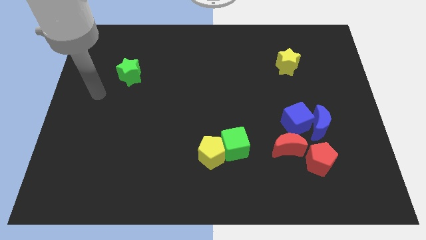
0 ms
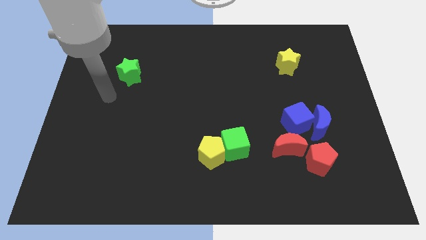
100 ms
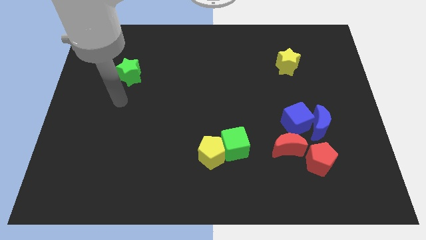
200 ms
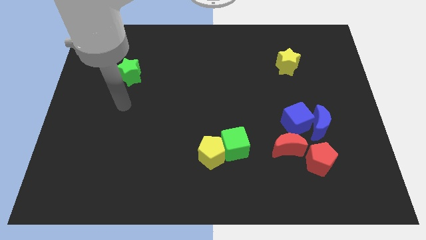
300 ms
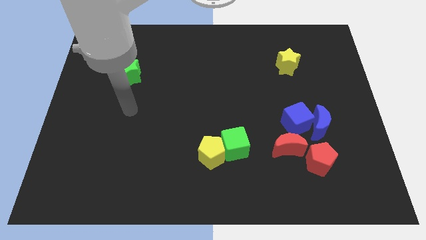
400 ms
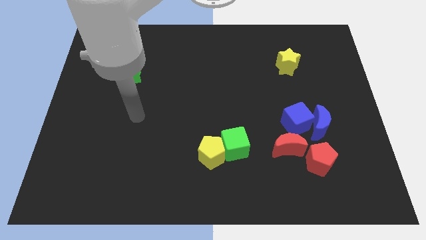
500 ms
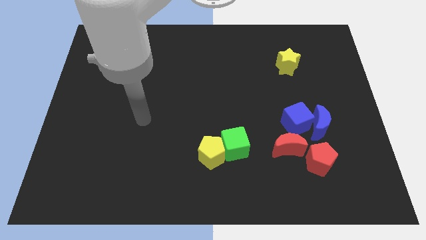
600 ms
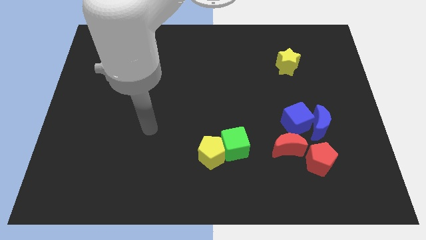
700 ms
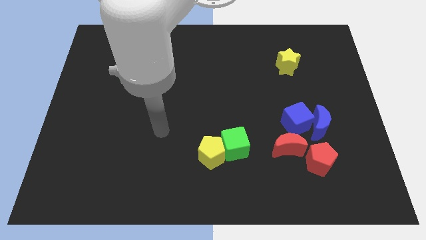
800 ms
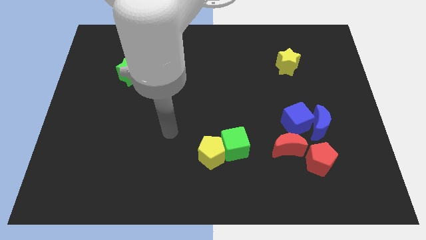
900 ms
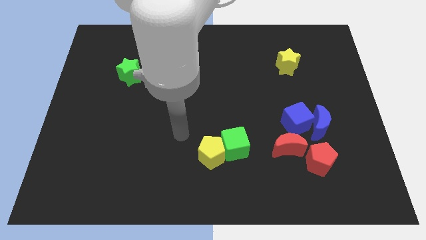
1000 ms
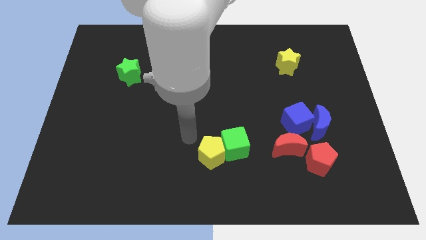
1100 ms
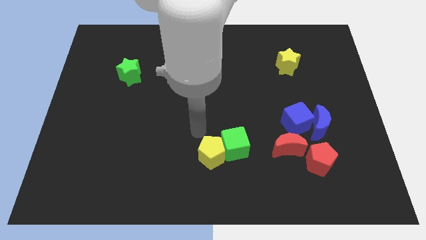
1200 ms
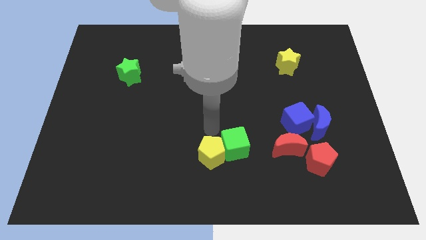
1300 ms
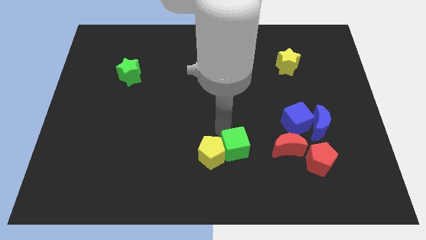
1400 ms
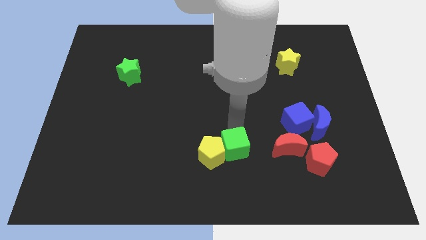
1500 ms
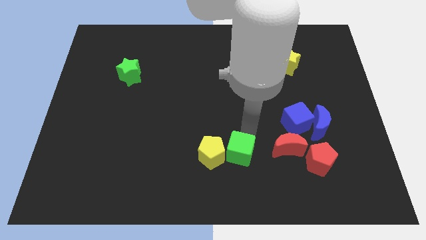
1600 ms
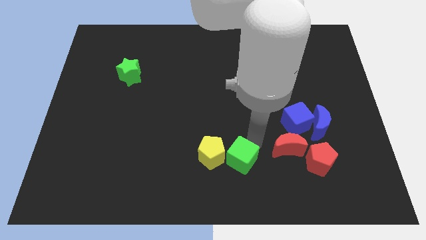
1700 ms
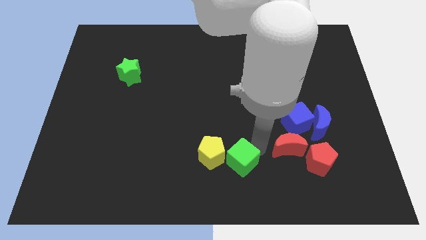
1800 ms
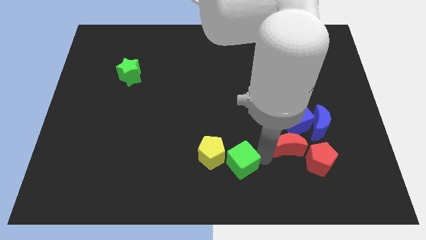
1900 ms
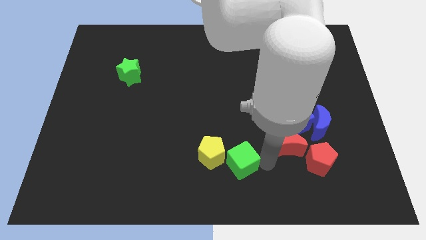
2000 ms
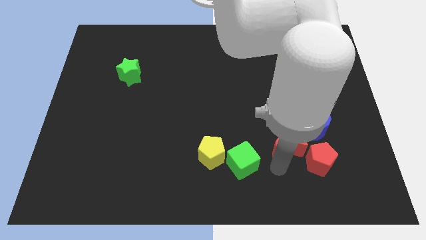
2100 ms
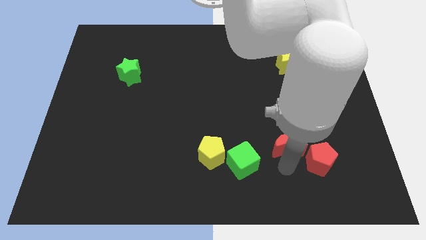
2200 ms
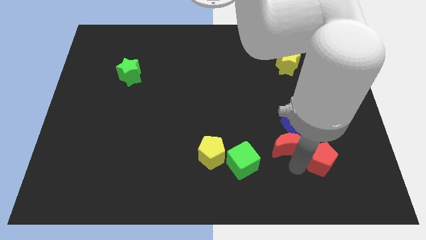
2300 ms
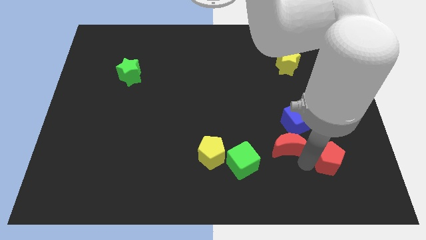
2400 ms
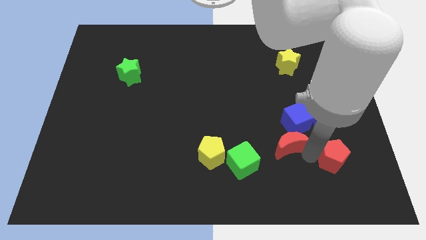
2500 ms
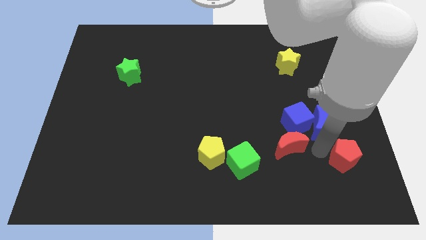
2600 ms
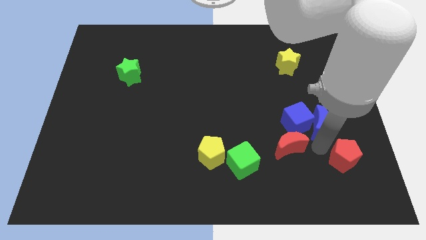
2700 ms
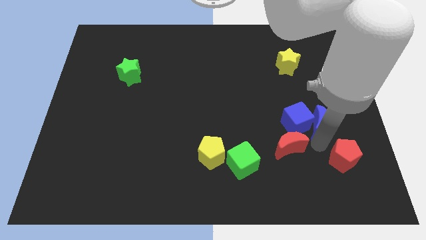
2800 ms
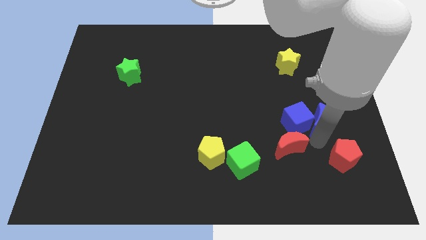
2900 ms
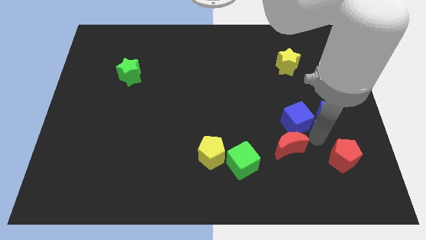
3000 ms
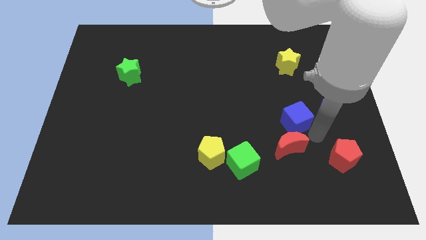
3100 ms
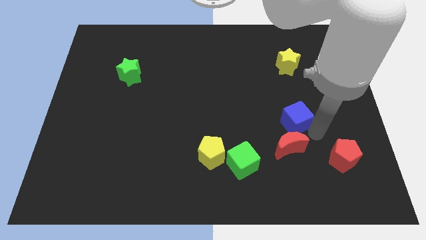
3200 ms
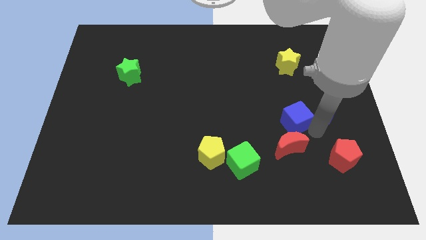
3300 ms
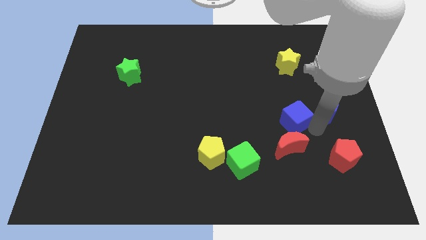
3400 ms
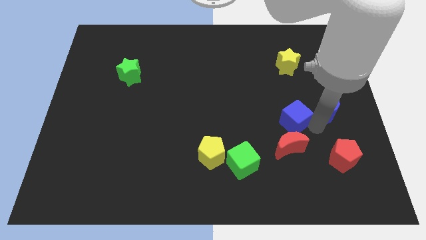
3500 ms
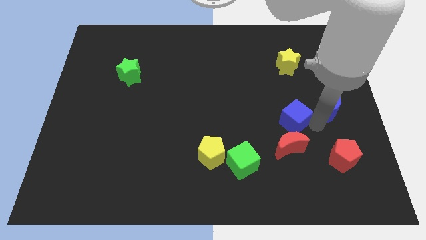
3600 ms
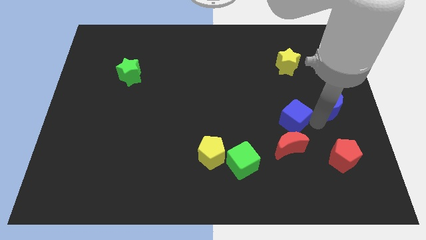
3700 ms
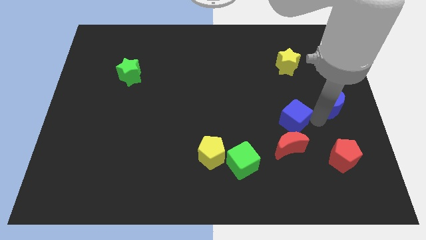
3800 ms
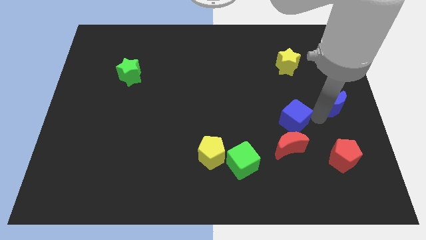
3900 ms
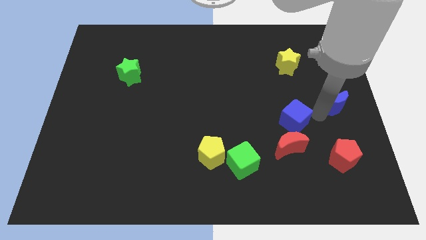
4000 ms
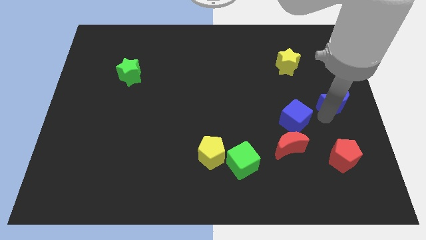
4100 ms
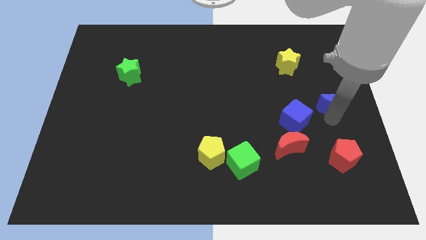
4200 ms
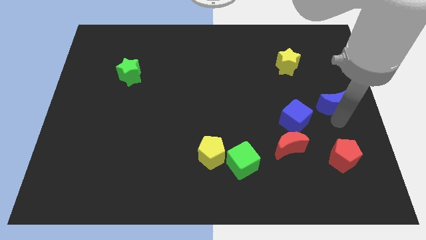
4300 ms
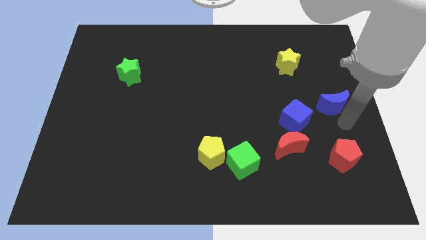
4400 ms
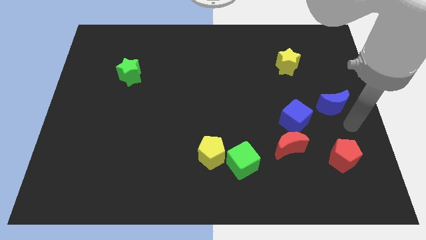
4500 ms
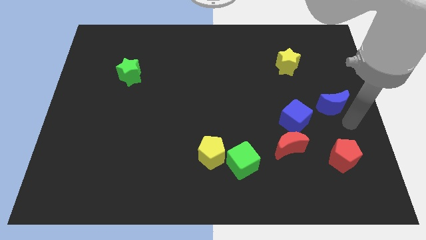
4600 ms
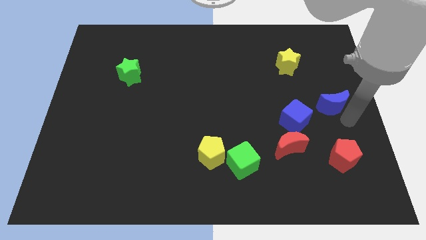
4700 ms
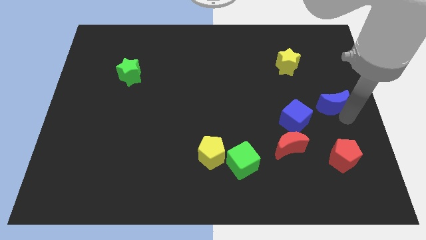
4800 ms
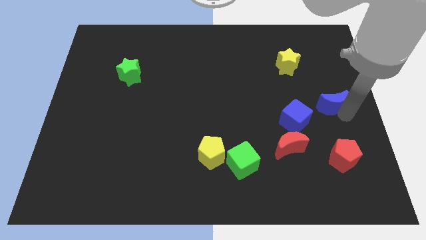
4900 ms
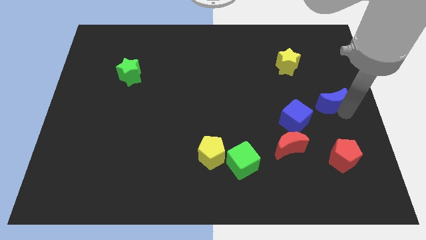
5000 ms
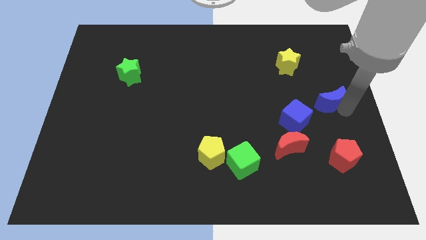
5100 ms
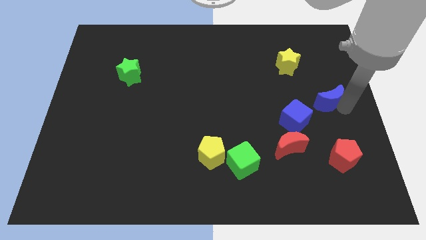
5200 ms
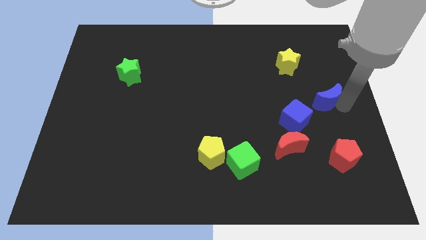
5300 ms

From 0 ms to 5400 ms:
slightly move the blue moon upwards

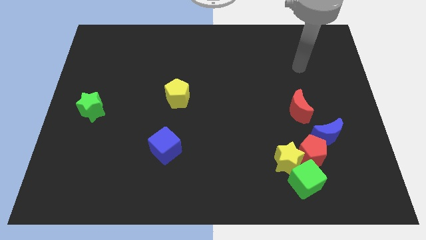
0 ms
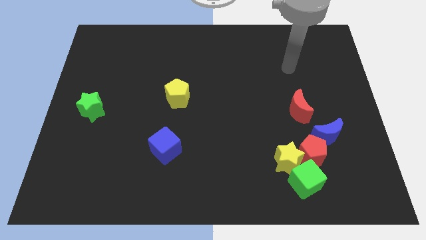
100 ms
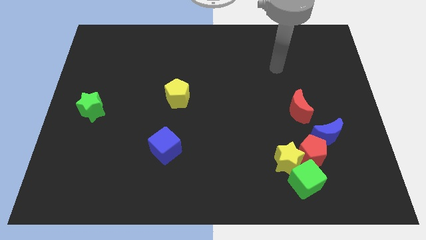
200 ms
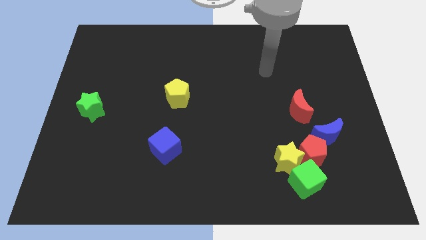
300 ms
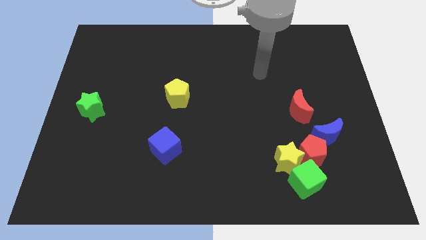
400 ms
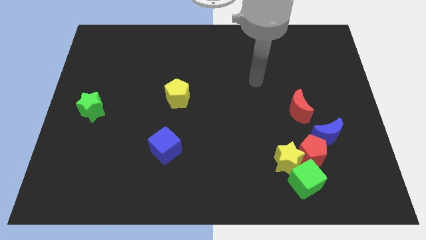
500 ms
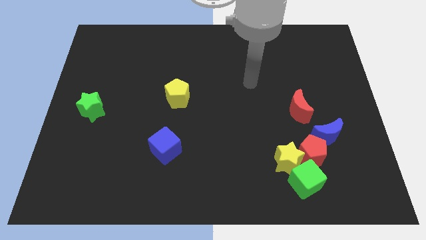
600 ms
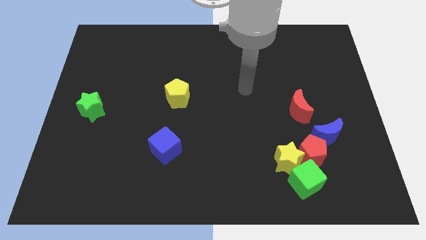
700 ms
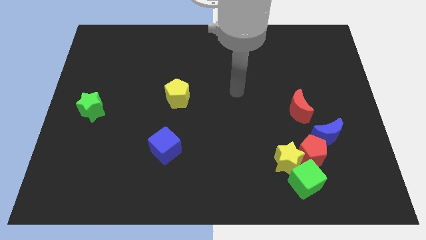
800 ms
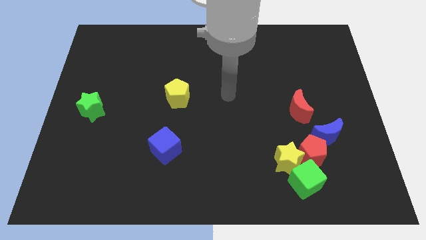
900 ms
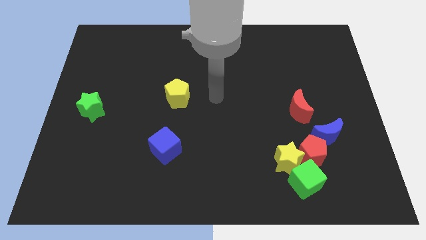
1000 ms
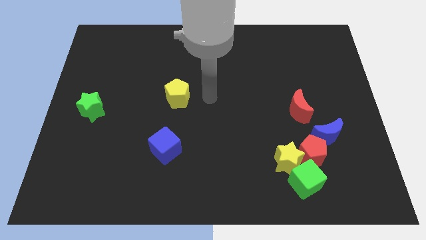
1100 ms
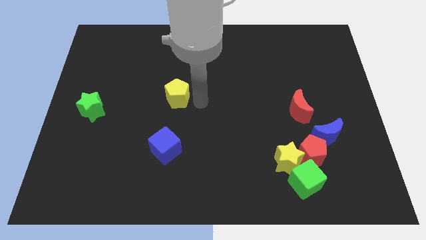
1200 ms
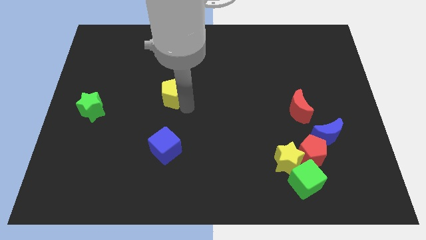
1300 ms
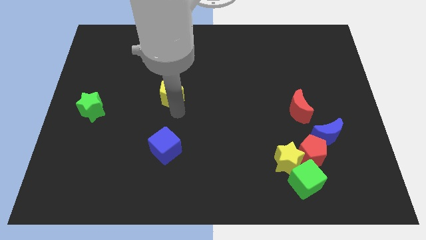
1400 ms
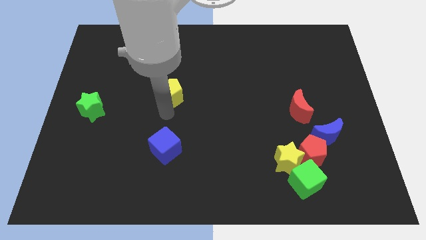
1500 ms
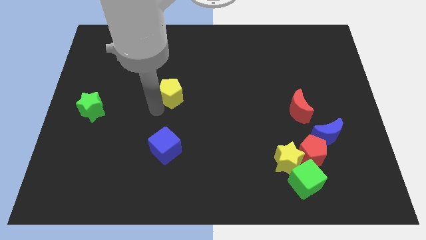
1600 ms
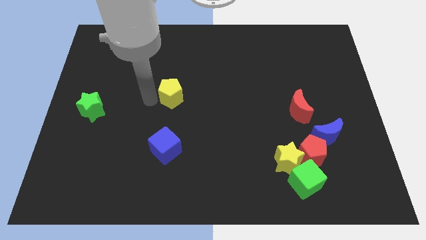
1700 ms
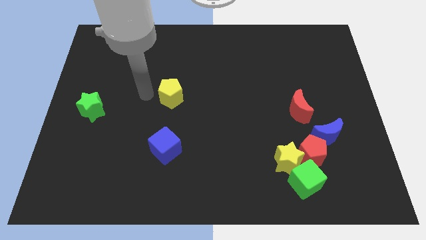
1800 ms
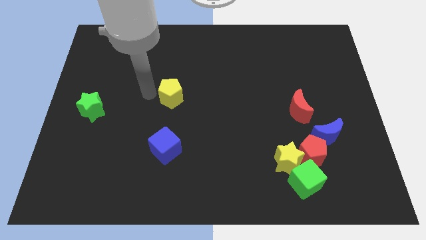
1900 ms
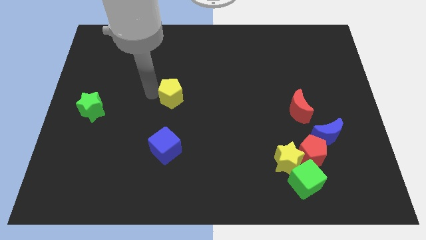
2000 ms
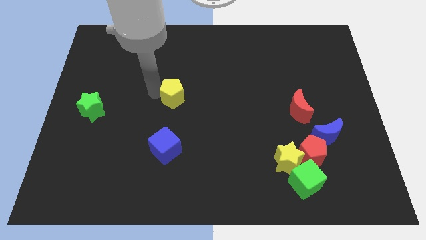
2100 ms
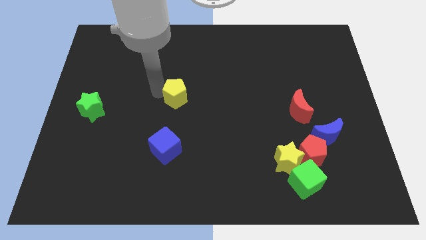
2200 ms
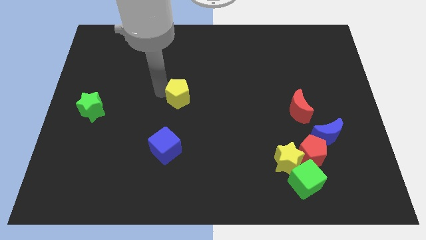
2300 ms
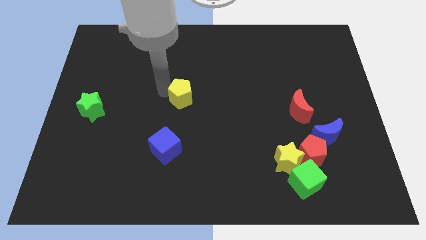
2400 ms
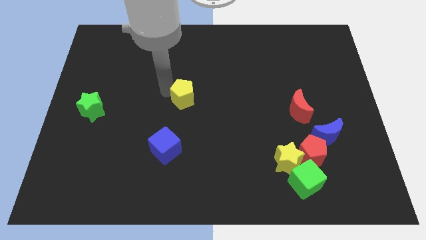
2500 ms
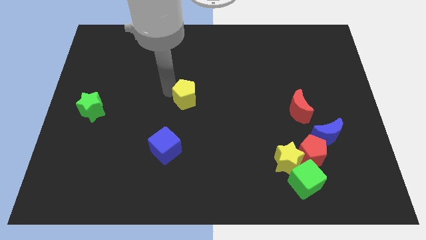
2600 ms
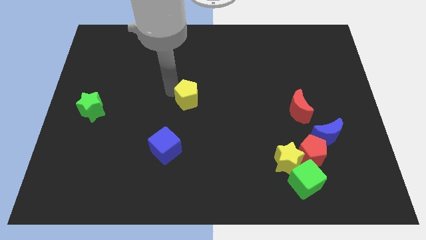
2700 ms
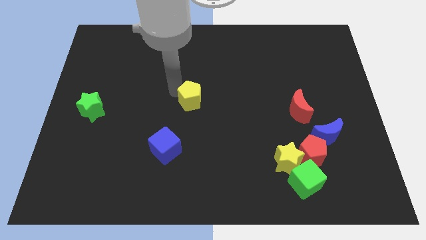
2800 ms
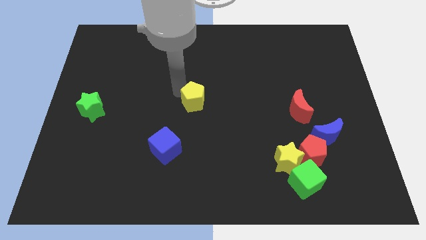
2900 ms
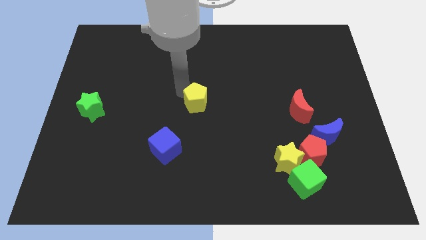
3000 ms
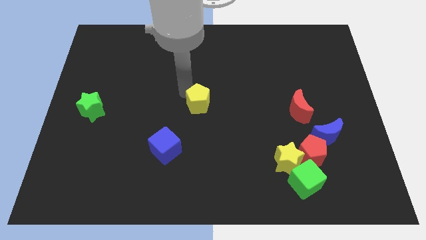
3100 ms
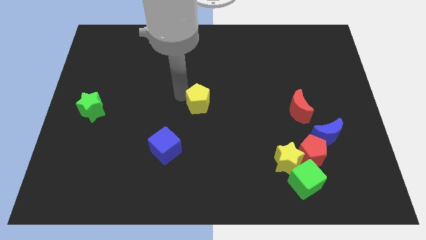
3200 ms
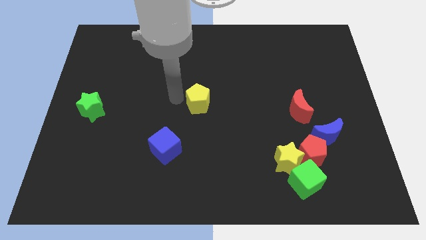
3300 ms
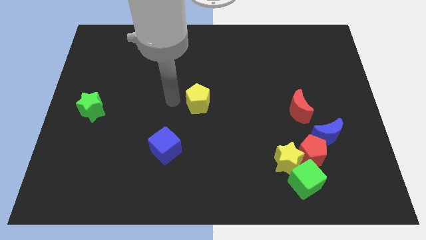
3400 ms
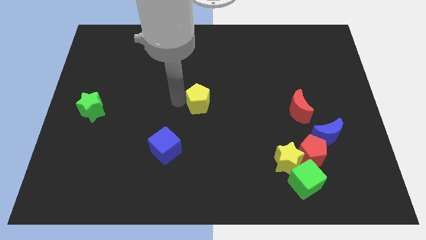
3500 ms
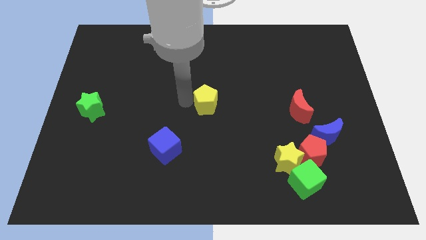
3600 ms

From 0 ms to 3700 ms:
slightly slide the yellow pentagon to the right
